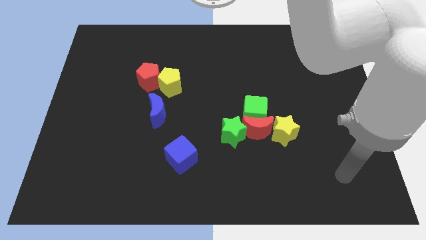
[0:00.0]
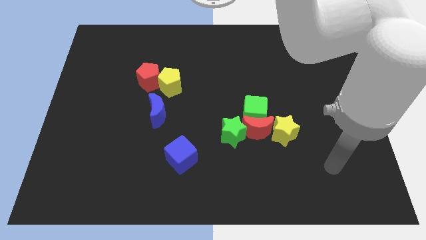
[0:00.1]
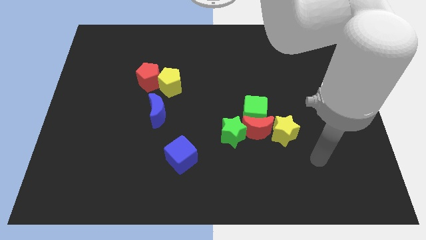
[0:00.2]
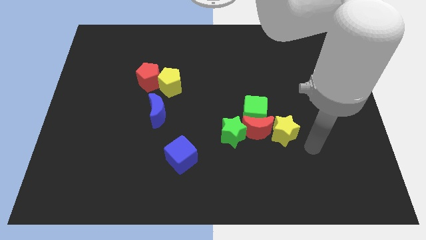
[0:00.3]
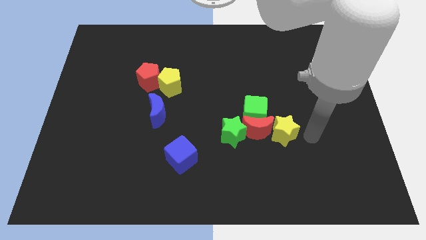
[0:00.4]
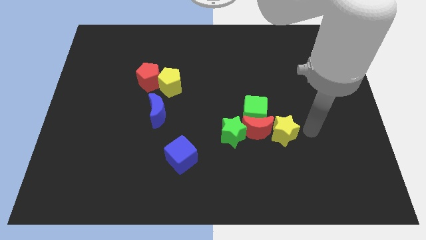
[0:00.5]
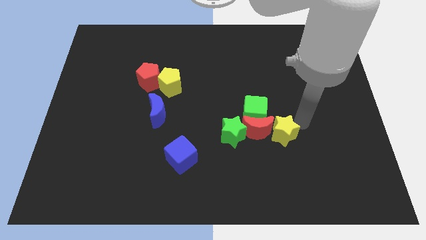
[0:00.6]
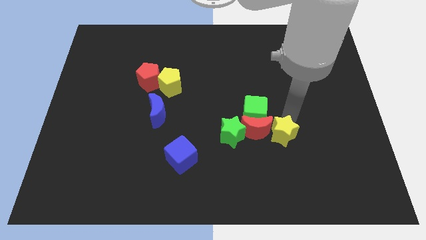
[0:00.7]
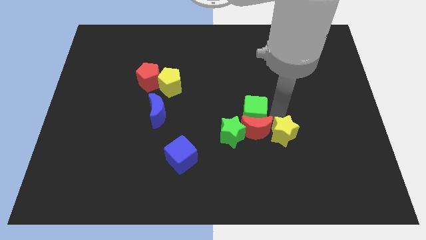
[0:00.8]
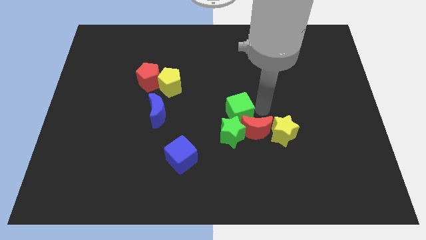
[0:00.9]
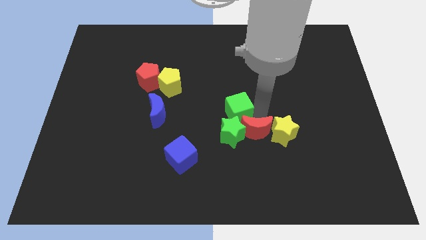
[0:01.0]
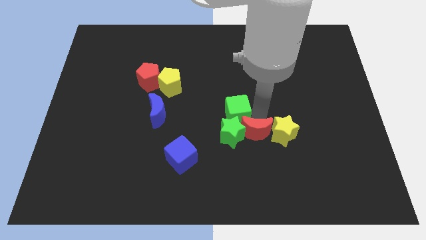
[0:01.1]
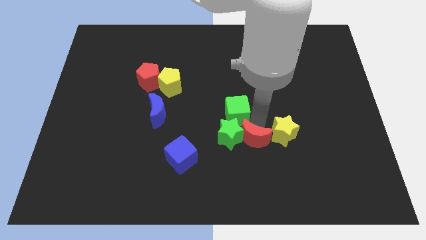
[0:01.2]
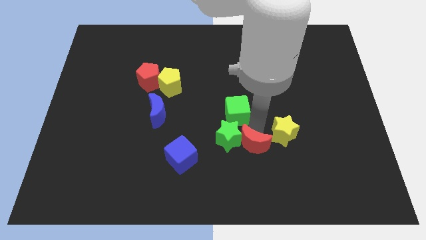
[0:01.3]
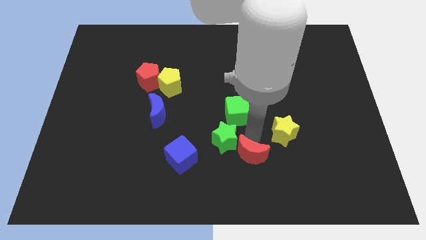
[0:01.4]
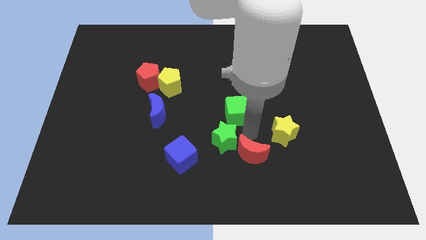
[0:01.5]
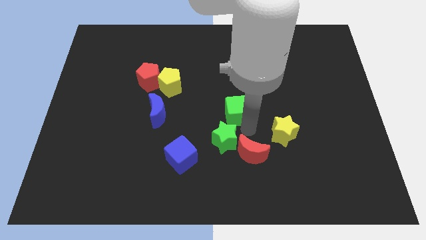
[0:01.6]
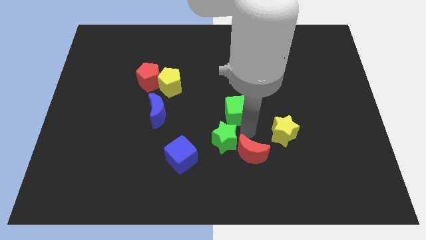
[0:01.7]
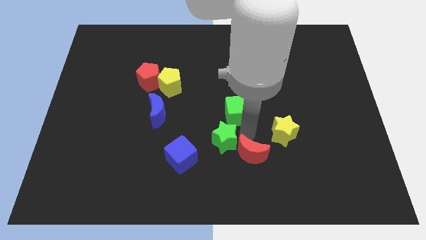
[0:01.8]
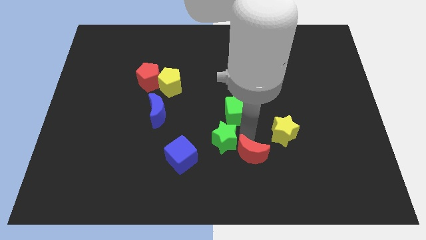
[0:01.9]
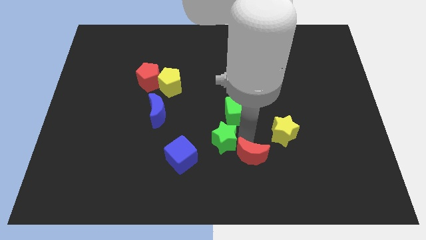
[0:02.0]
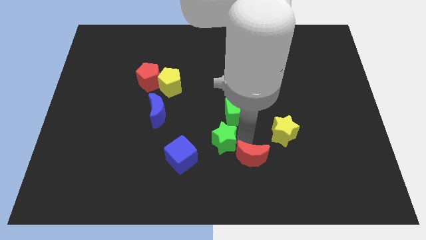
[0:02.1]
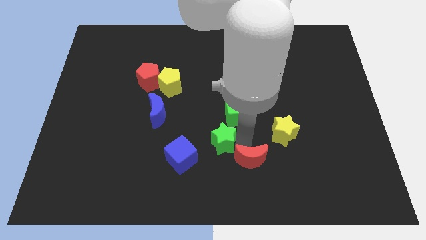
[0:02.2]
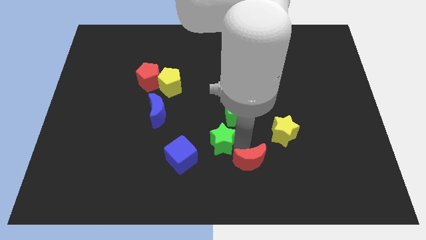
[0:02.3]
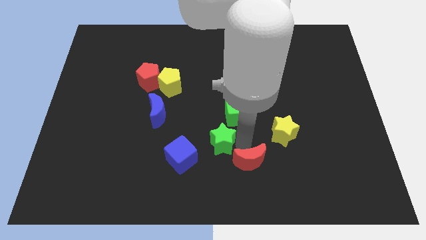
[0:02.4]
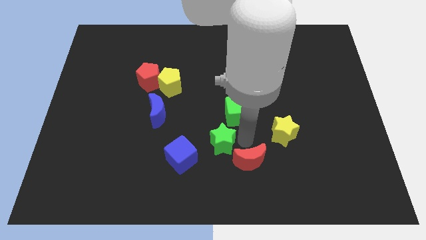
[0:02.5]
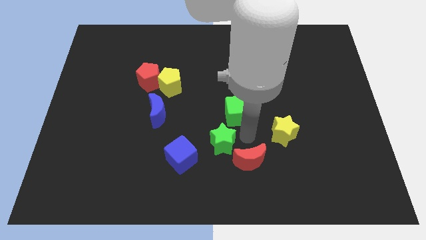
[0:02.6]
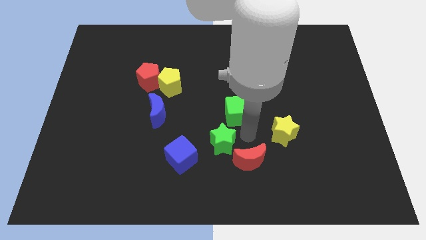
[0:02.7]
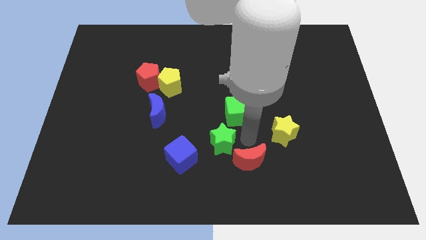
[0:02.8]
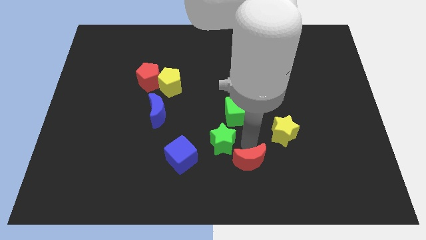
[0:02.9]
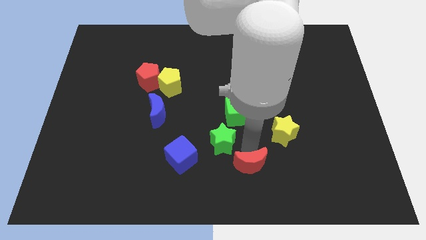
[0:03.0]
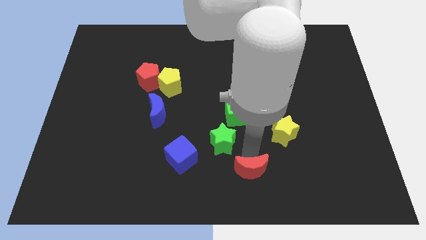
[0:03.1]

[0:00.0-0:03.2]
pull the red moon apart from the green cube, green star, and yellow star

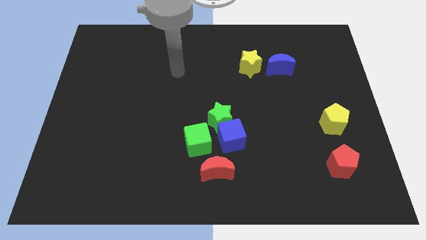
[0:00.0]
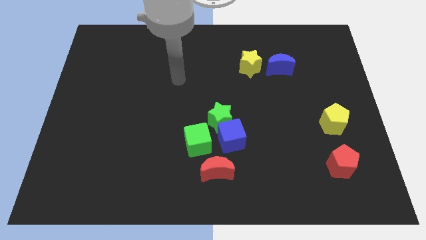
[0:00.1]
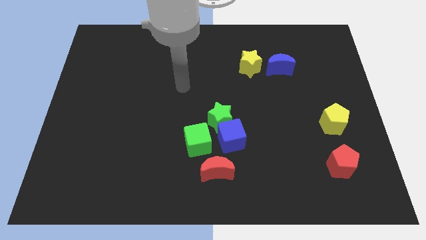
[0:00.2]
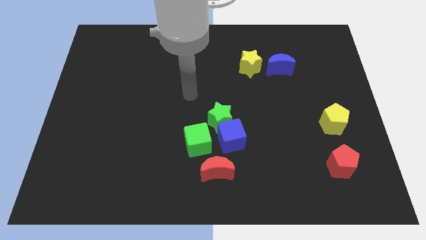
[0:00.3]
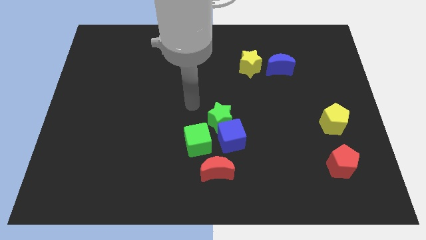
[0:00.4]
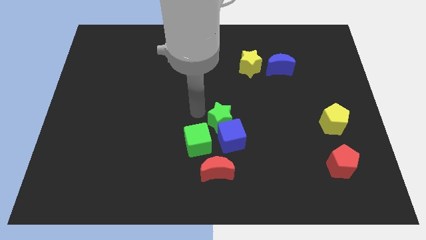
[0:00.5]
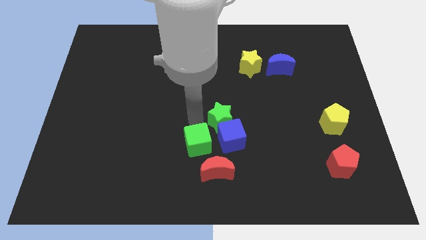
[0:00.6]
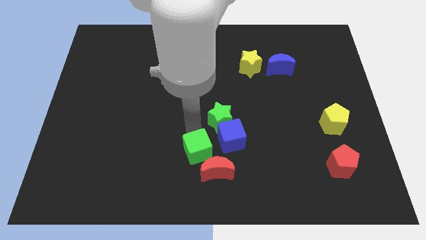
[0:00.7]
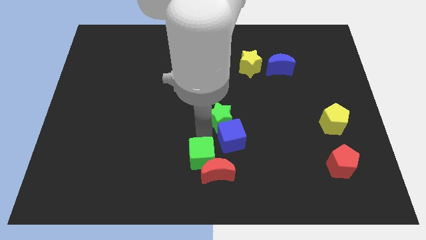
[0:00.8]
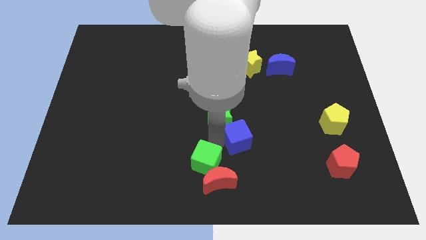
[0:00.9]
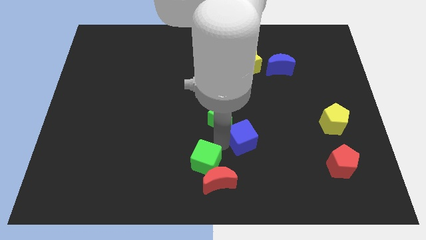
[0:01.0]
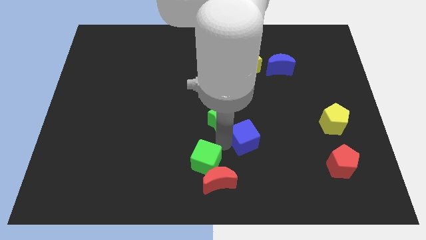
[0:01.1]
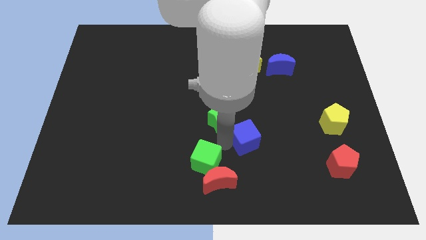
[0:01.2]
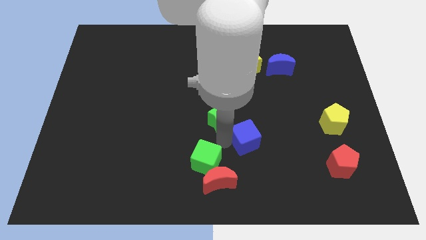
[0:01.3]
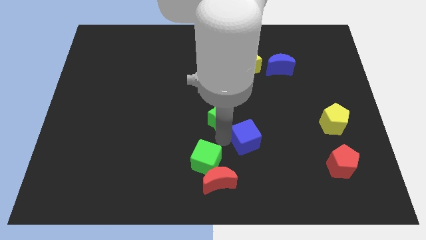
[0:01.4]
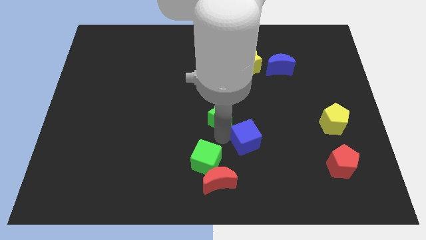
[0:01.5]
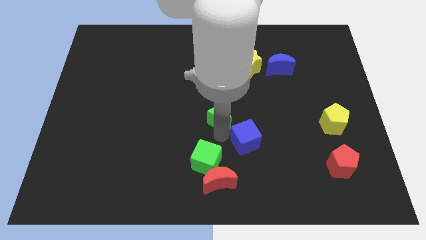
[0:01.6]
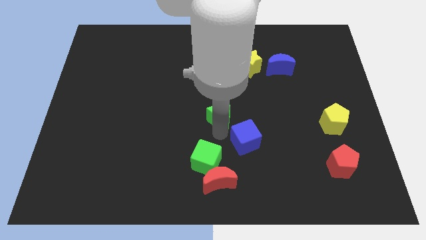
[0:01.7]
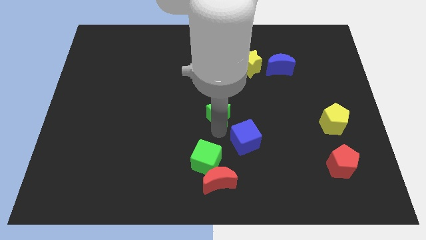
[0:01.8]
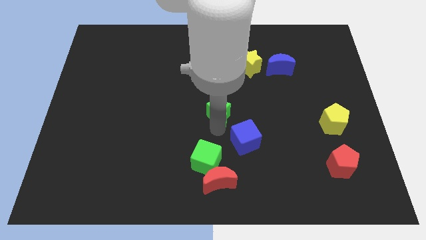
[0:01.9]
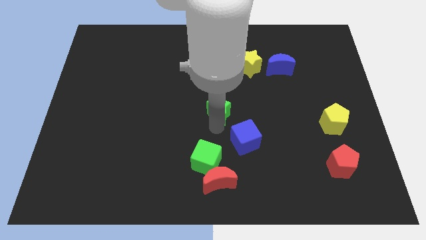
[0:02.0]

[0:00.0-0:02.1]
move the green star away from the blue cube and green cube

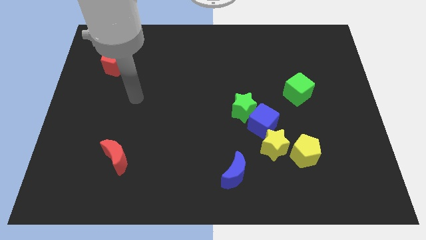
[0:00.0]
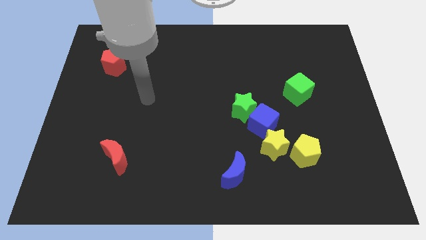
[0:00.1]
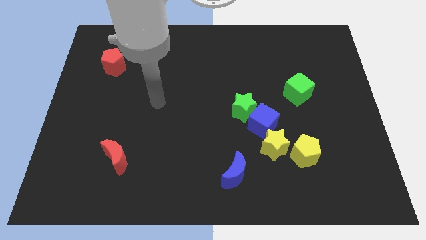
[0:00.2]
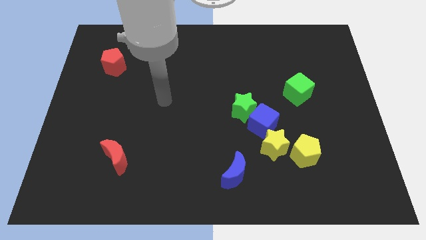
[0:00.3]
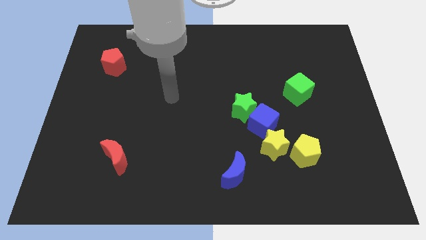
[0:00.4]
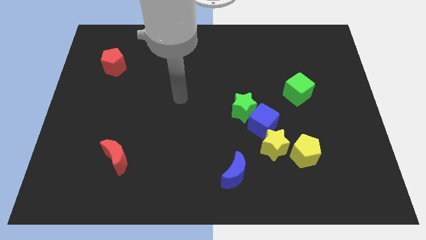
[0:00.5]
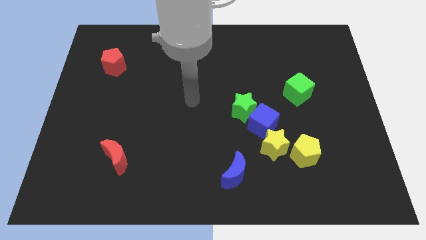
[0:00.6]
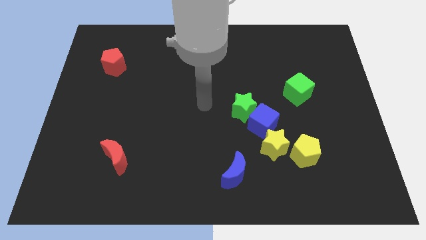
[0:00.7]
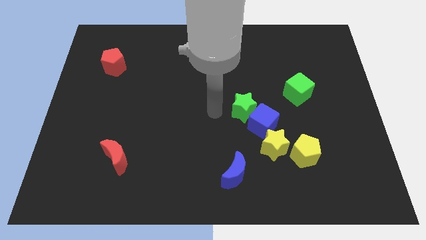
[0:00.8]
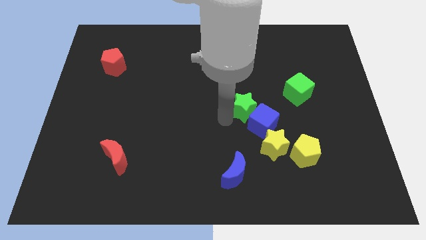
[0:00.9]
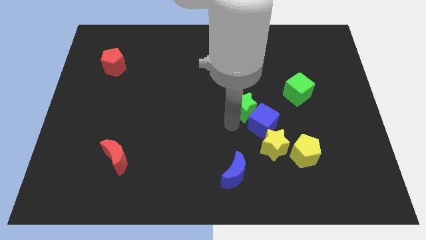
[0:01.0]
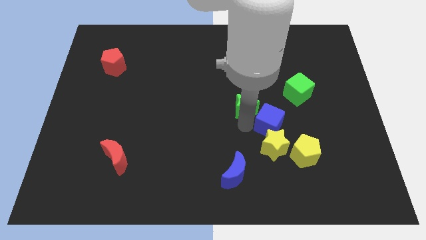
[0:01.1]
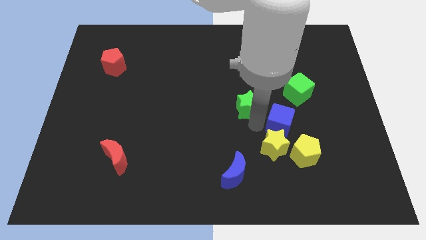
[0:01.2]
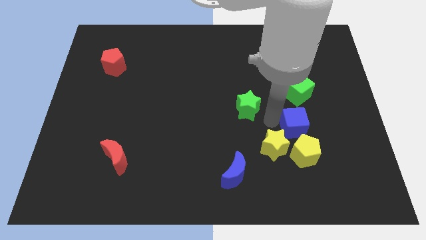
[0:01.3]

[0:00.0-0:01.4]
move the green star away from the blue cube

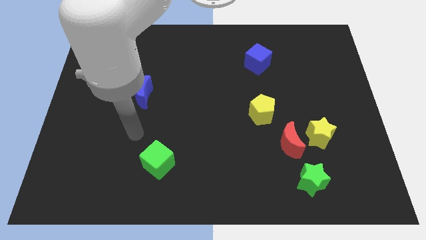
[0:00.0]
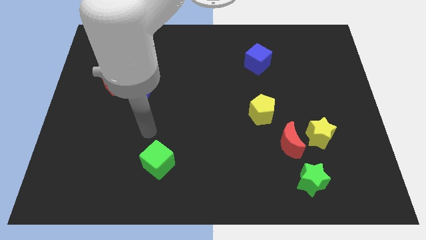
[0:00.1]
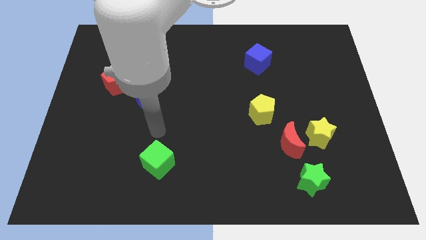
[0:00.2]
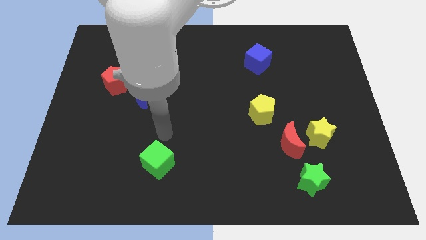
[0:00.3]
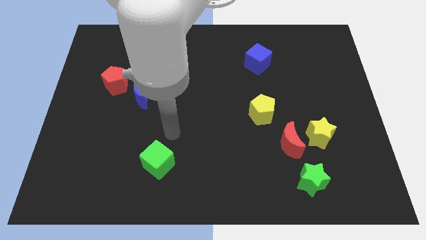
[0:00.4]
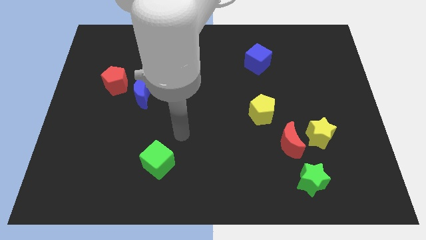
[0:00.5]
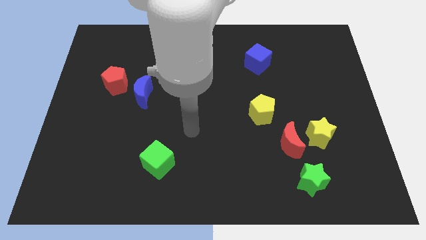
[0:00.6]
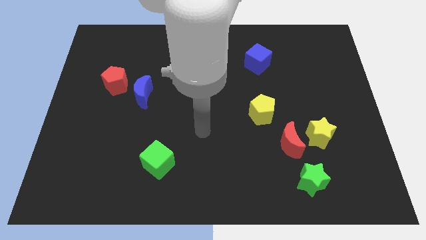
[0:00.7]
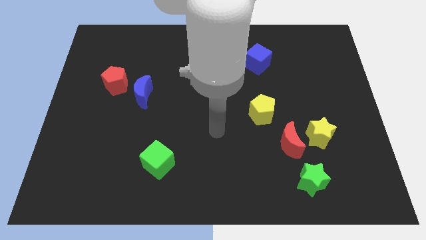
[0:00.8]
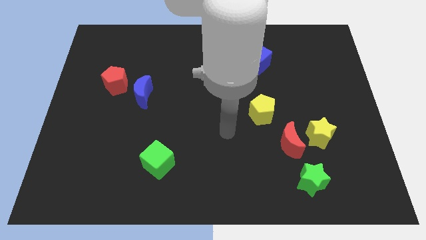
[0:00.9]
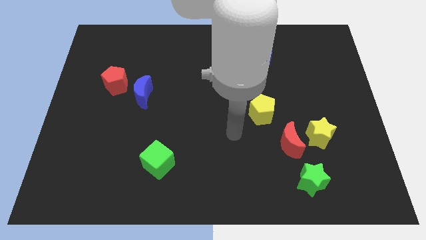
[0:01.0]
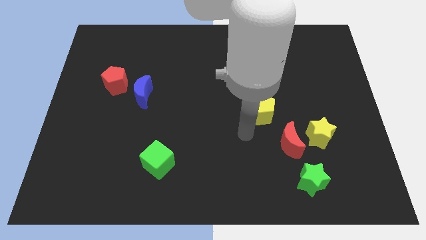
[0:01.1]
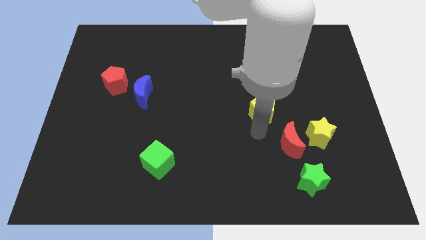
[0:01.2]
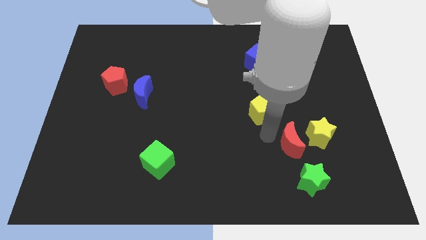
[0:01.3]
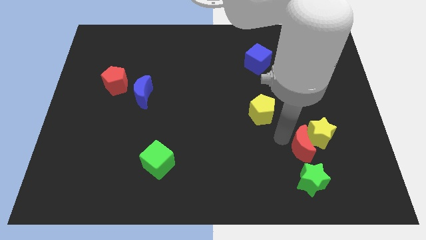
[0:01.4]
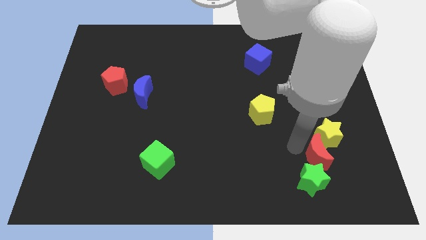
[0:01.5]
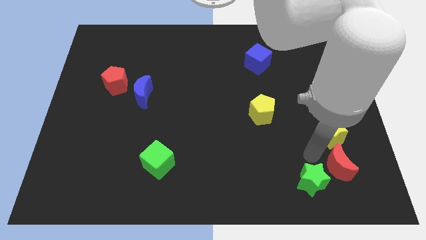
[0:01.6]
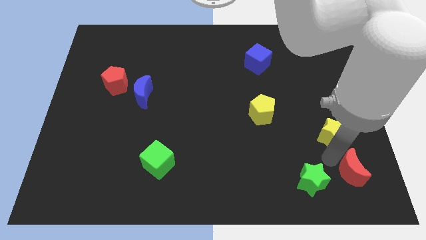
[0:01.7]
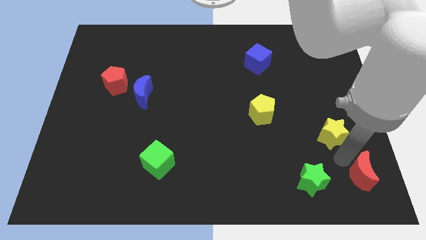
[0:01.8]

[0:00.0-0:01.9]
move the yellow star away from the red moon

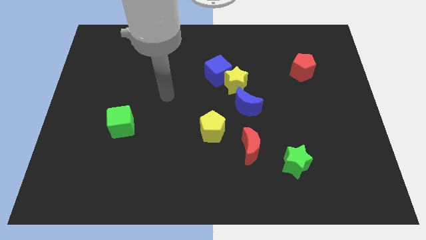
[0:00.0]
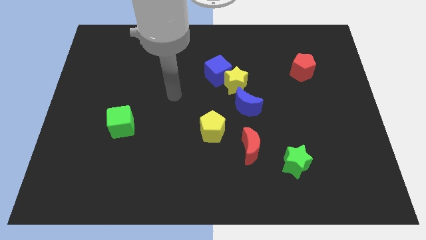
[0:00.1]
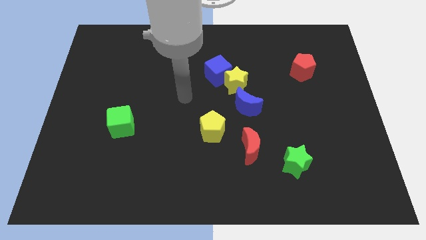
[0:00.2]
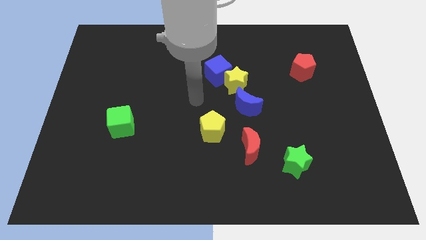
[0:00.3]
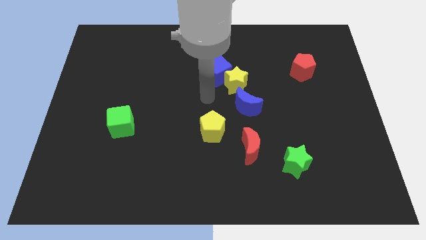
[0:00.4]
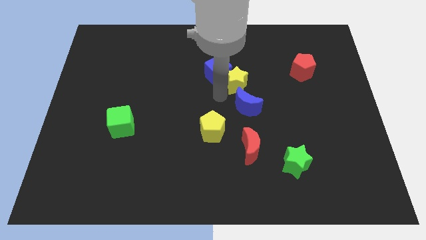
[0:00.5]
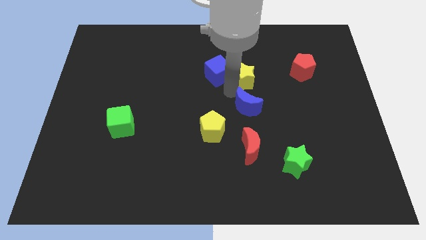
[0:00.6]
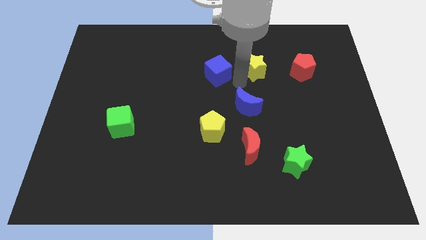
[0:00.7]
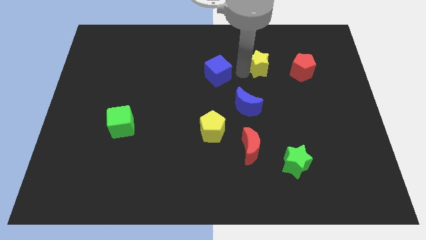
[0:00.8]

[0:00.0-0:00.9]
move the blue cube away from the yellow star

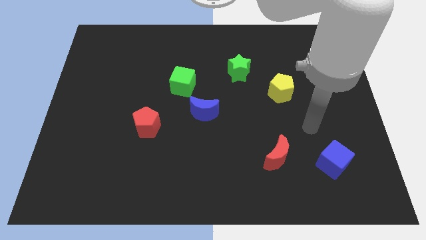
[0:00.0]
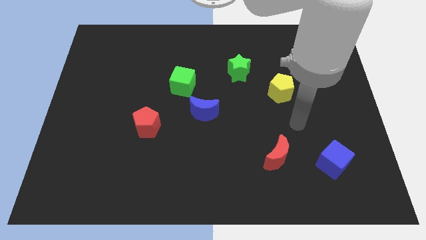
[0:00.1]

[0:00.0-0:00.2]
separate the blue moon from the green cube
